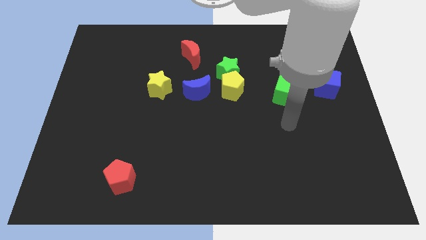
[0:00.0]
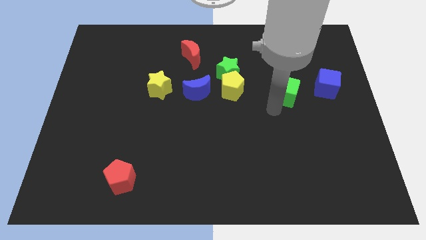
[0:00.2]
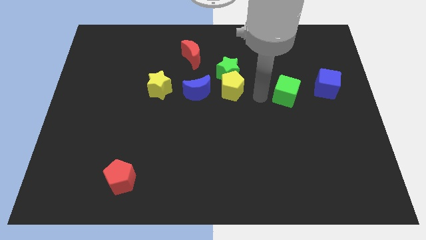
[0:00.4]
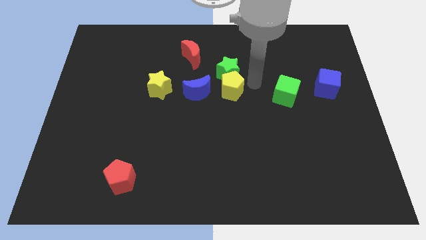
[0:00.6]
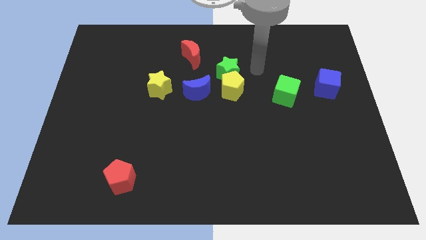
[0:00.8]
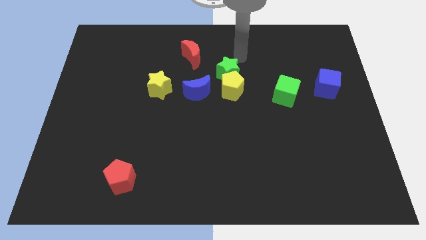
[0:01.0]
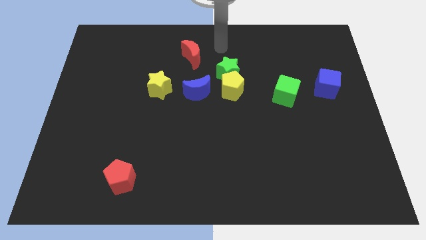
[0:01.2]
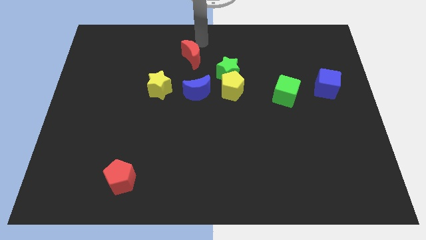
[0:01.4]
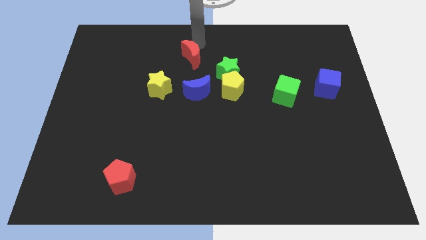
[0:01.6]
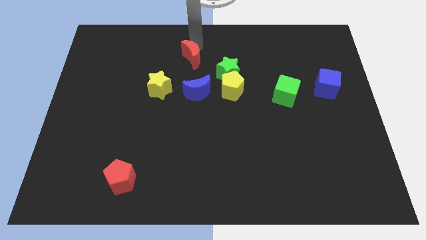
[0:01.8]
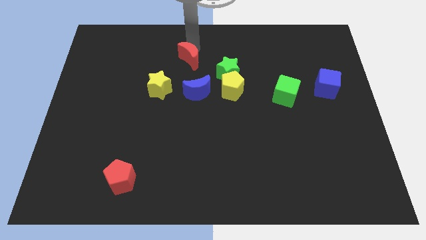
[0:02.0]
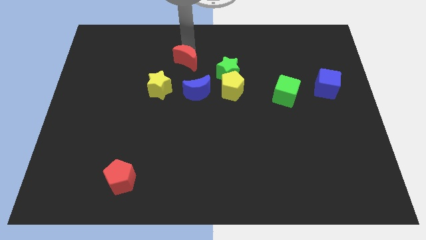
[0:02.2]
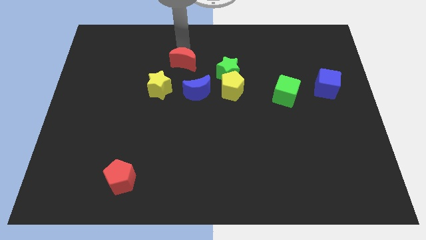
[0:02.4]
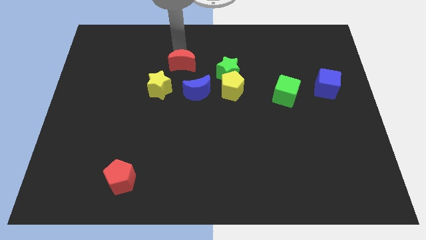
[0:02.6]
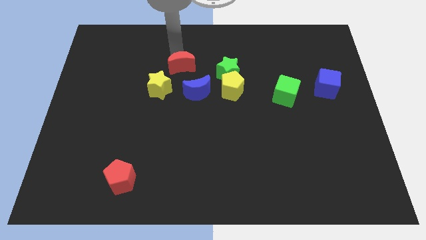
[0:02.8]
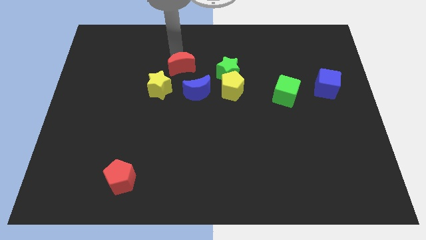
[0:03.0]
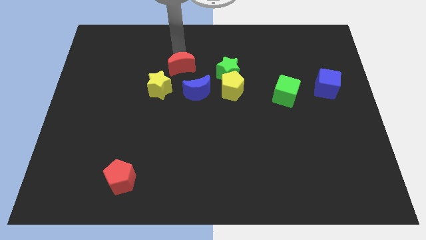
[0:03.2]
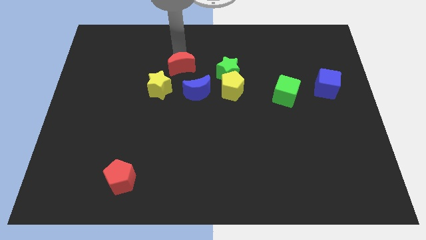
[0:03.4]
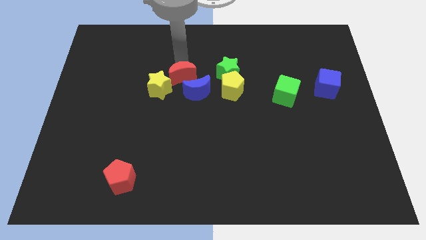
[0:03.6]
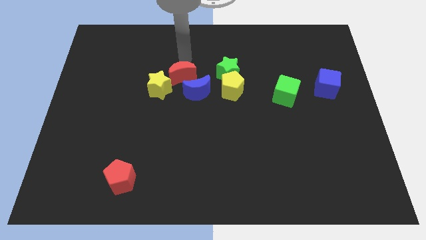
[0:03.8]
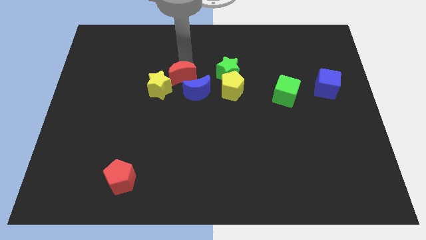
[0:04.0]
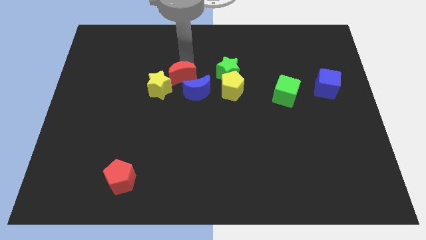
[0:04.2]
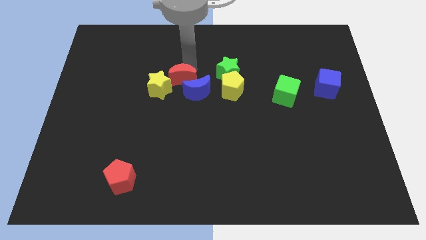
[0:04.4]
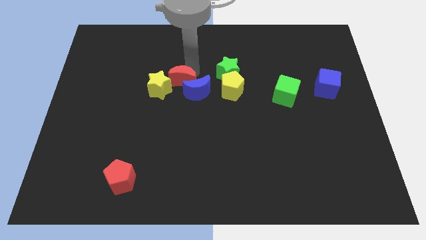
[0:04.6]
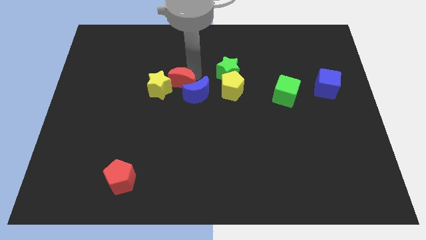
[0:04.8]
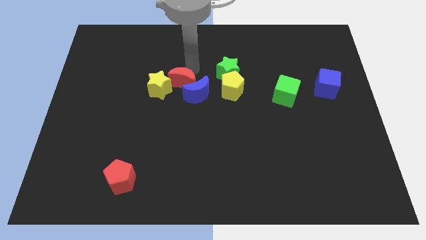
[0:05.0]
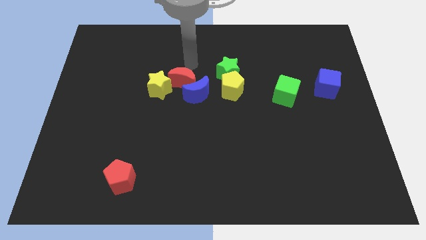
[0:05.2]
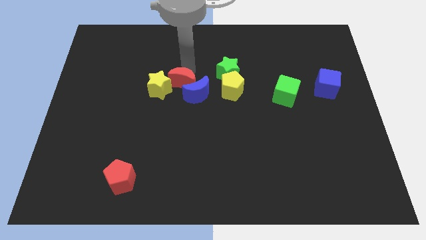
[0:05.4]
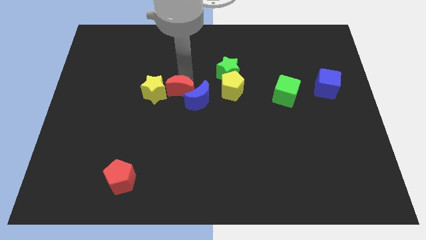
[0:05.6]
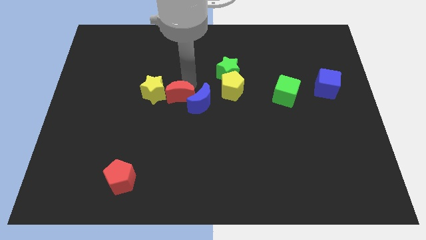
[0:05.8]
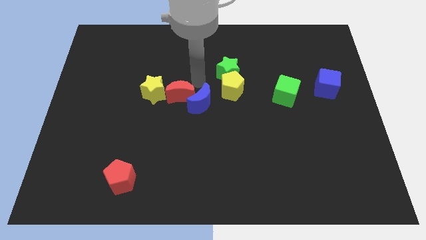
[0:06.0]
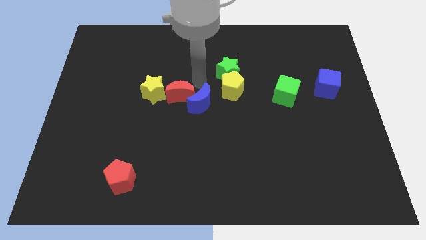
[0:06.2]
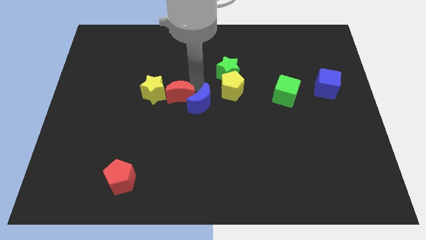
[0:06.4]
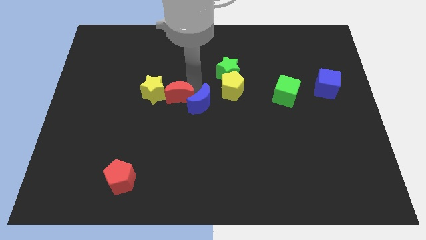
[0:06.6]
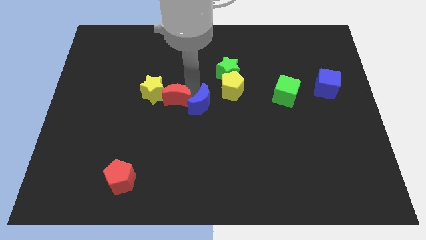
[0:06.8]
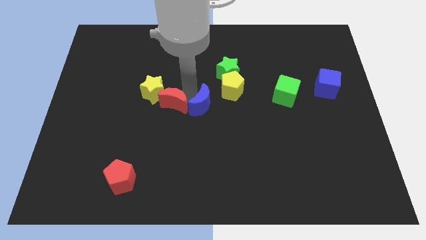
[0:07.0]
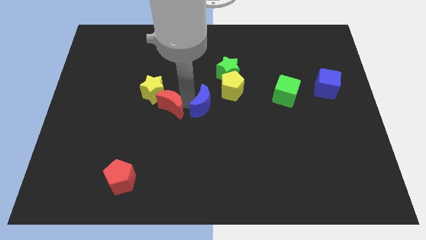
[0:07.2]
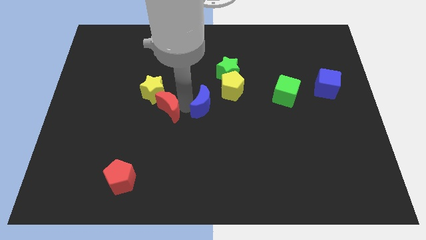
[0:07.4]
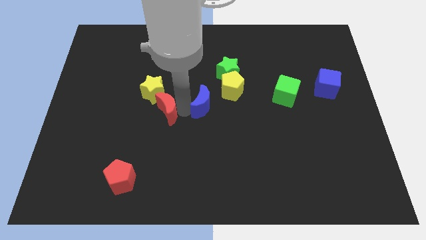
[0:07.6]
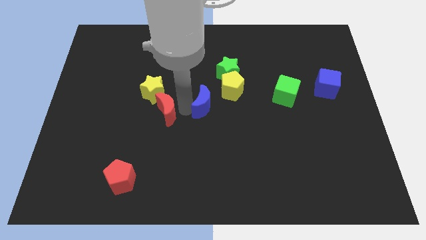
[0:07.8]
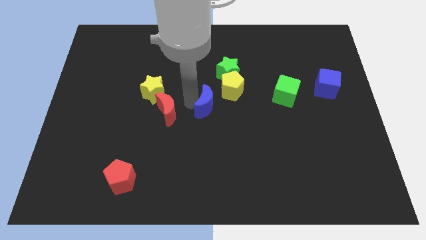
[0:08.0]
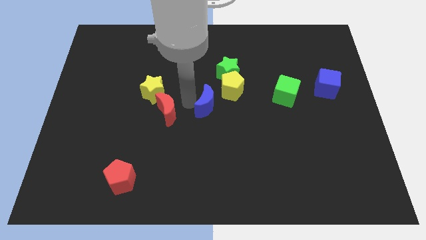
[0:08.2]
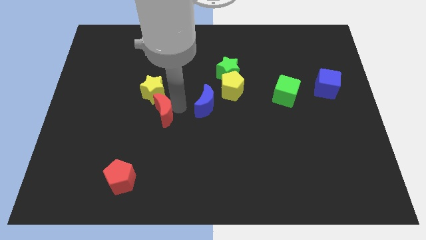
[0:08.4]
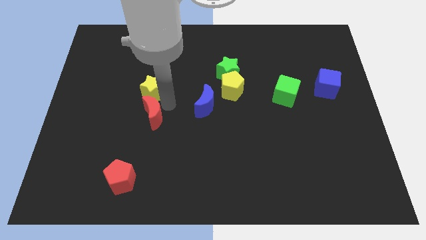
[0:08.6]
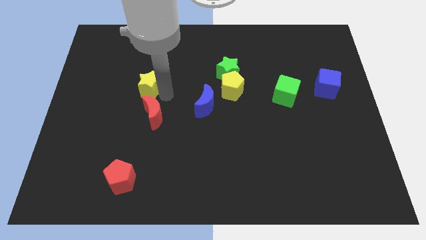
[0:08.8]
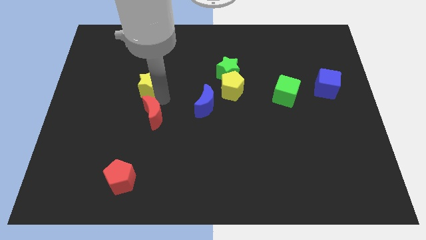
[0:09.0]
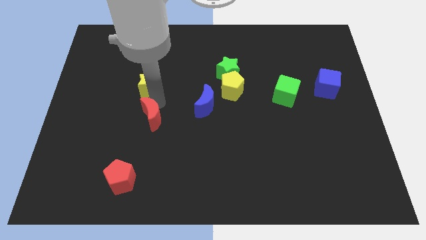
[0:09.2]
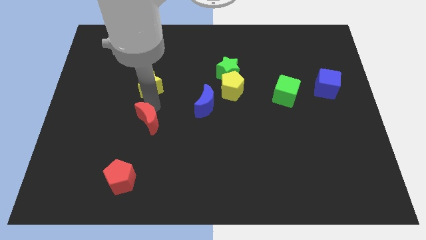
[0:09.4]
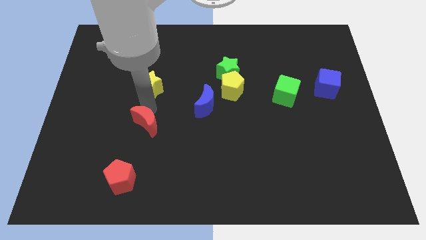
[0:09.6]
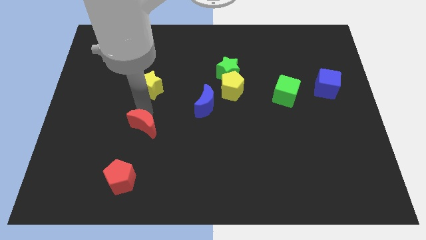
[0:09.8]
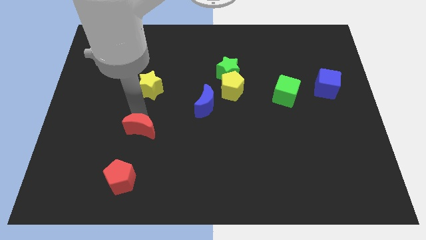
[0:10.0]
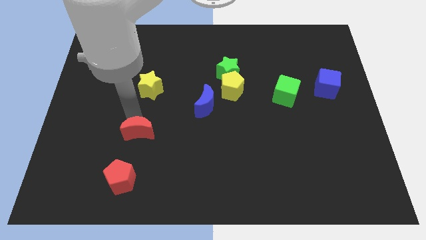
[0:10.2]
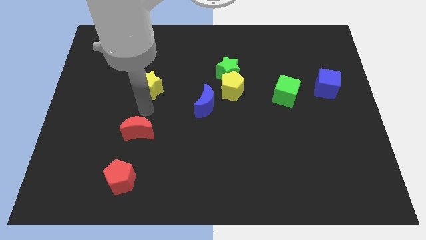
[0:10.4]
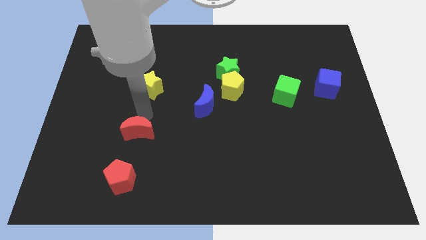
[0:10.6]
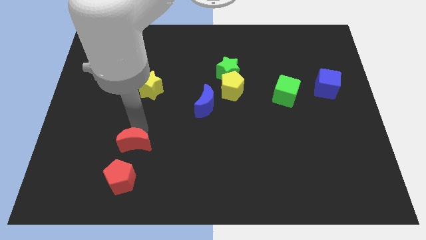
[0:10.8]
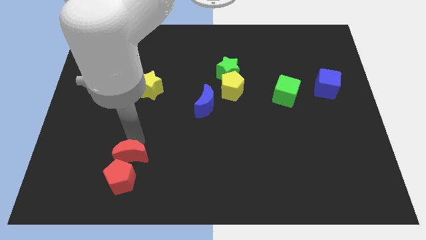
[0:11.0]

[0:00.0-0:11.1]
put the red moon to the red pentagon

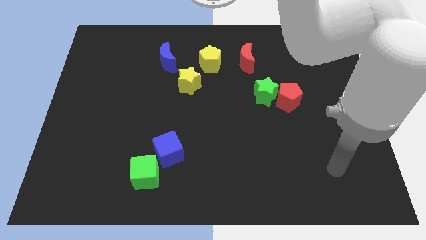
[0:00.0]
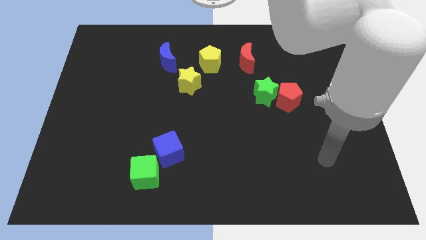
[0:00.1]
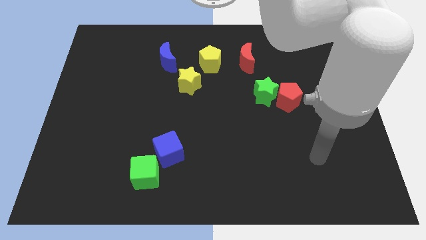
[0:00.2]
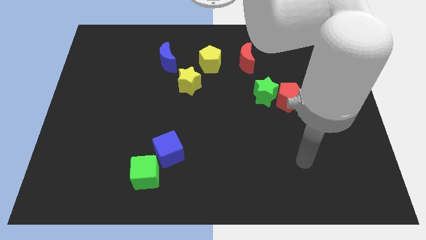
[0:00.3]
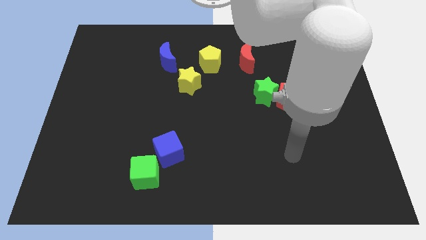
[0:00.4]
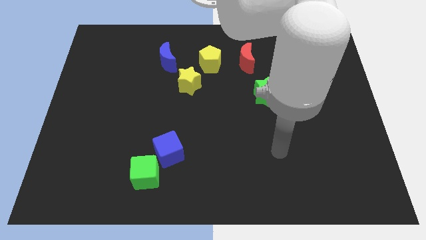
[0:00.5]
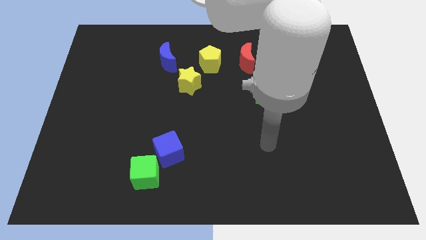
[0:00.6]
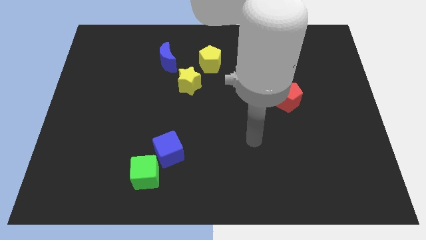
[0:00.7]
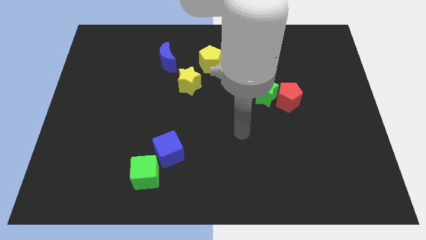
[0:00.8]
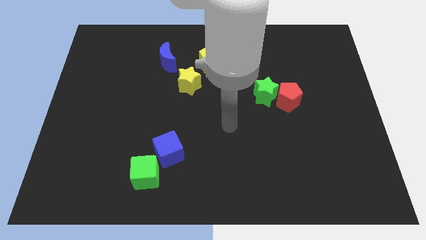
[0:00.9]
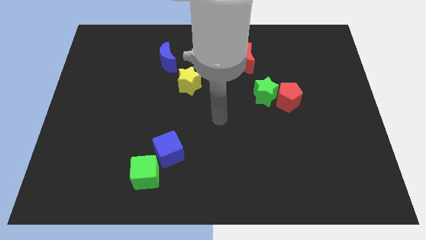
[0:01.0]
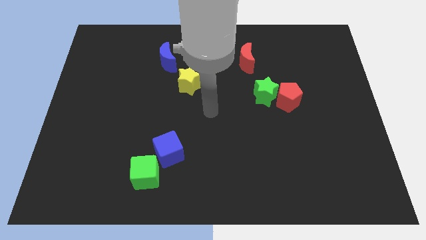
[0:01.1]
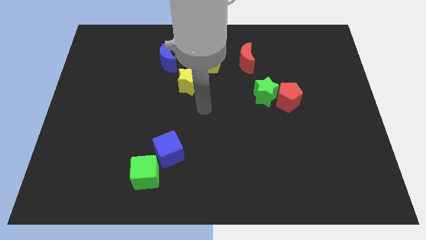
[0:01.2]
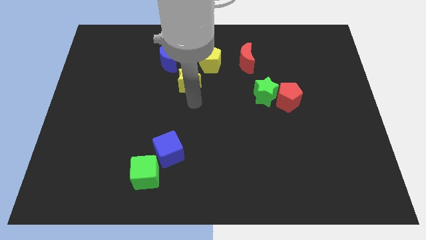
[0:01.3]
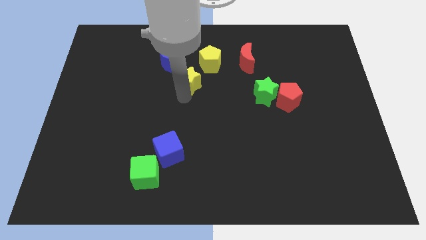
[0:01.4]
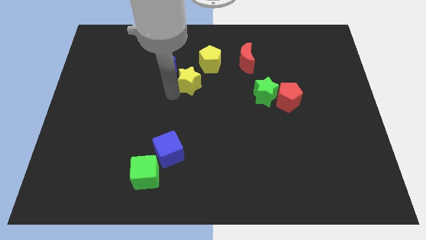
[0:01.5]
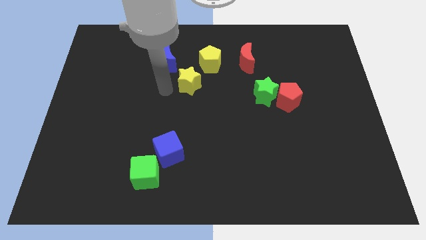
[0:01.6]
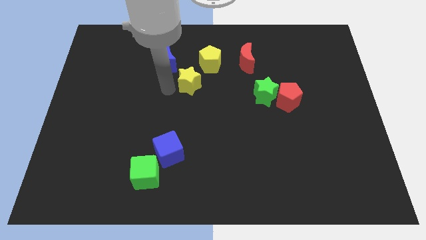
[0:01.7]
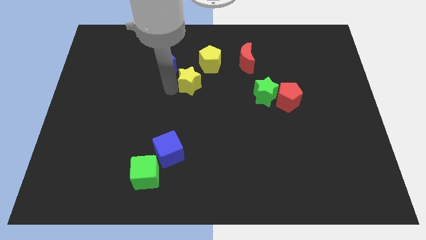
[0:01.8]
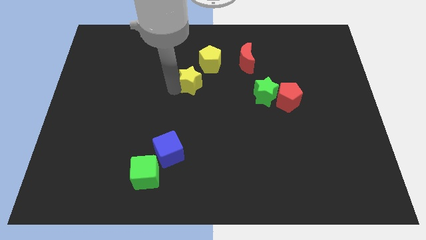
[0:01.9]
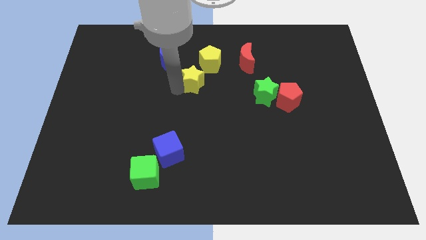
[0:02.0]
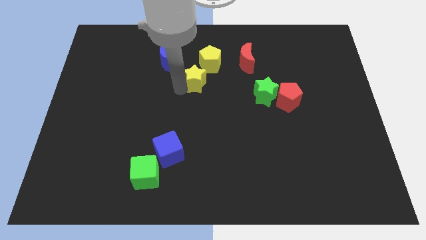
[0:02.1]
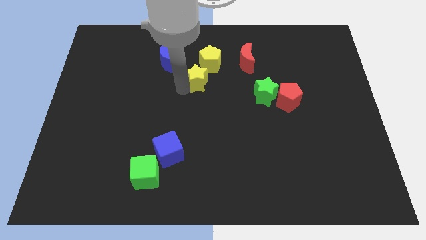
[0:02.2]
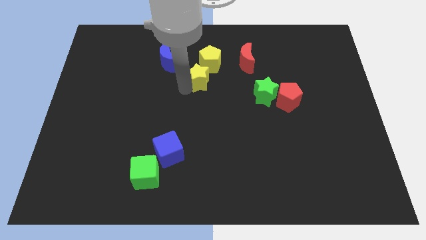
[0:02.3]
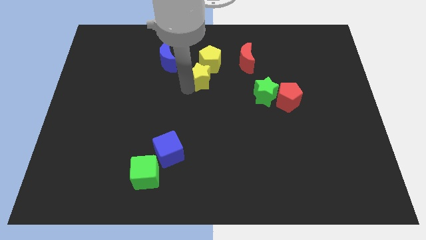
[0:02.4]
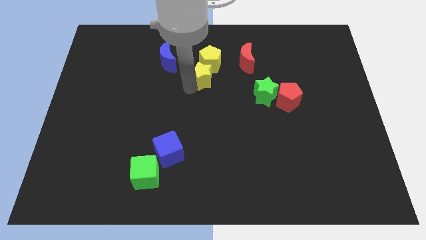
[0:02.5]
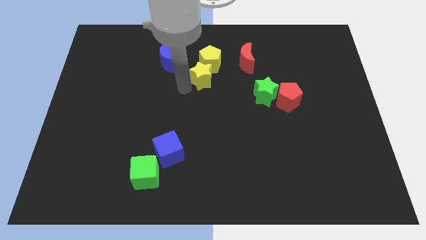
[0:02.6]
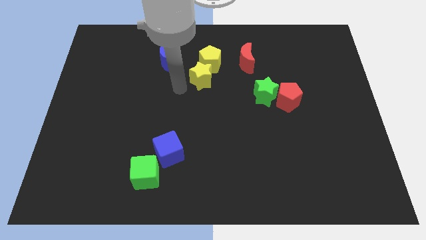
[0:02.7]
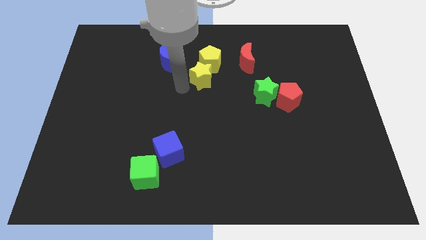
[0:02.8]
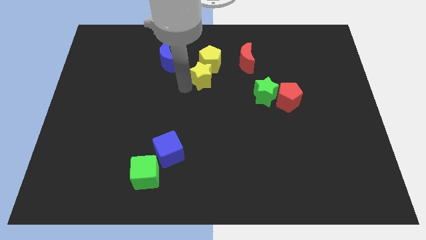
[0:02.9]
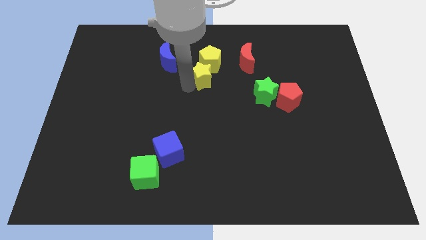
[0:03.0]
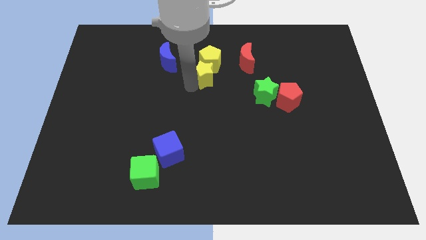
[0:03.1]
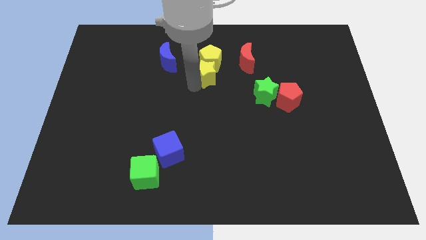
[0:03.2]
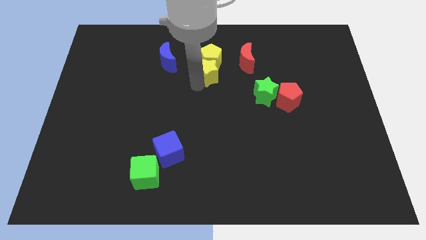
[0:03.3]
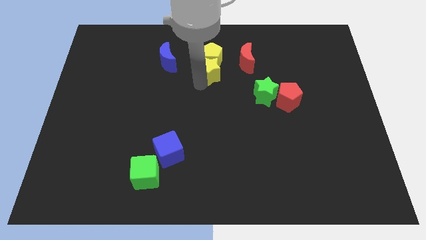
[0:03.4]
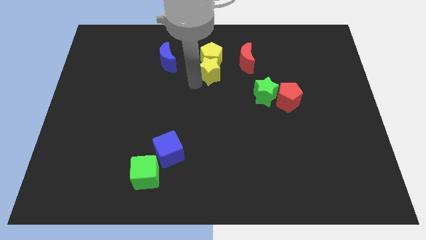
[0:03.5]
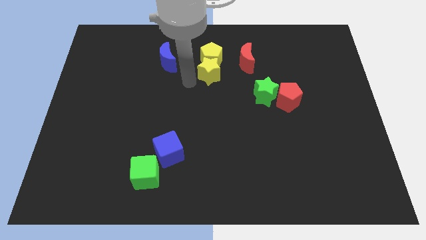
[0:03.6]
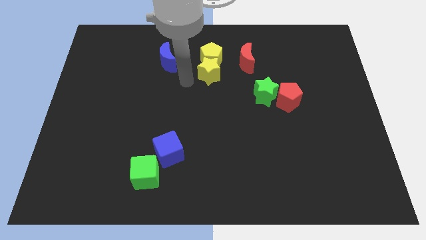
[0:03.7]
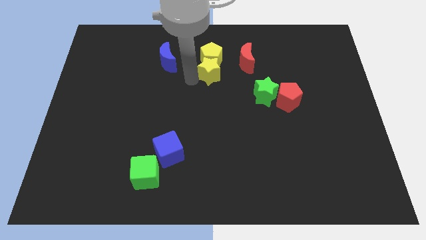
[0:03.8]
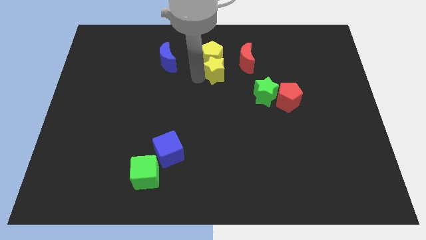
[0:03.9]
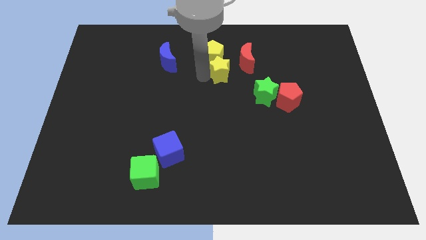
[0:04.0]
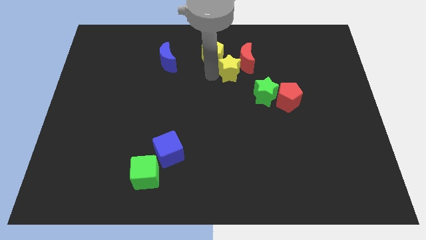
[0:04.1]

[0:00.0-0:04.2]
put the yellow star to the red moon
